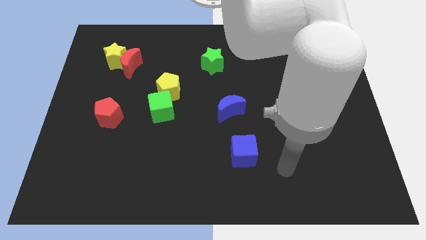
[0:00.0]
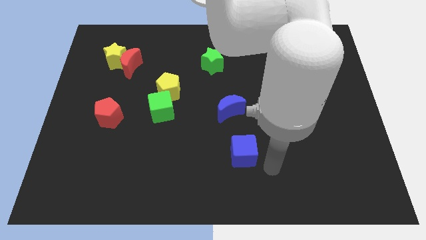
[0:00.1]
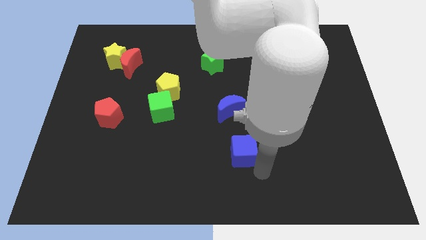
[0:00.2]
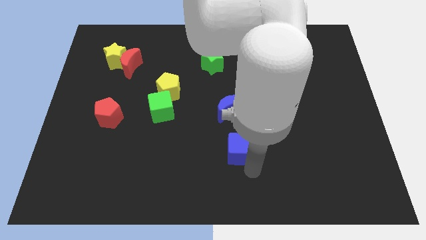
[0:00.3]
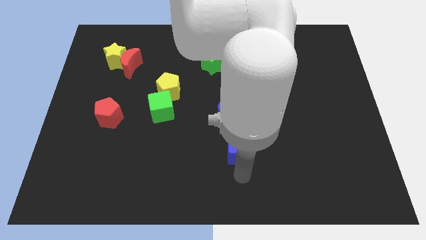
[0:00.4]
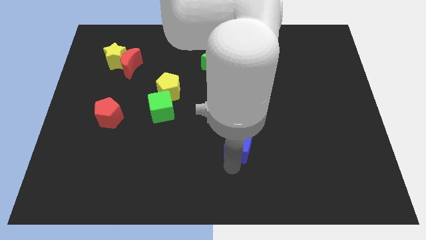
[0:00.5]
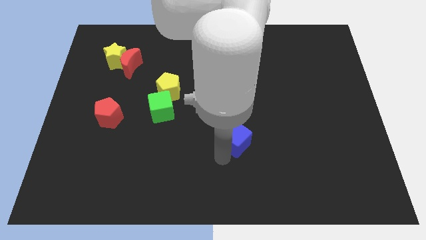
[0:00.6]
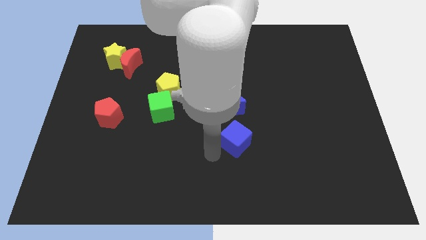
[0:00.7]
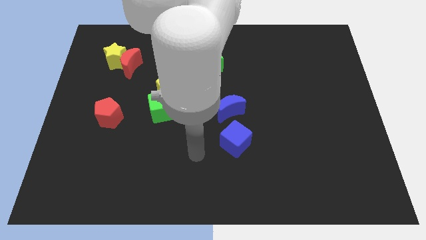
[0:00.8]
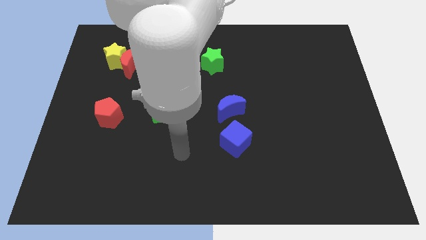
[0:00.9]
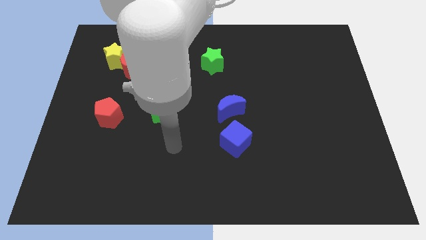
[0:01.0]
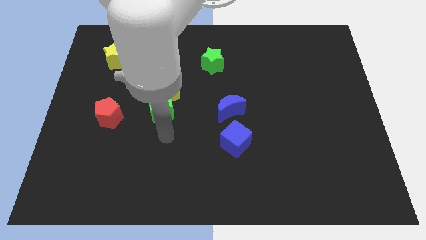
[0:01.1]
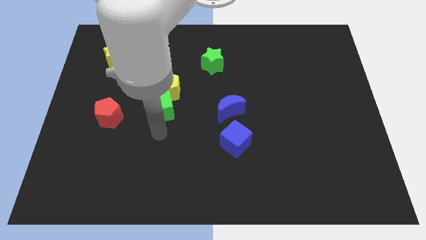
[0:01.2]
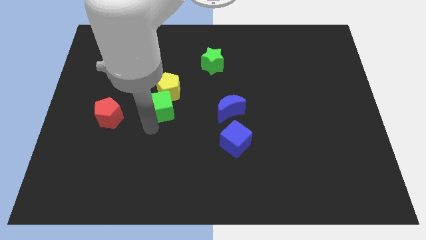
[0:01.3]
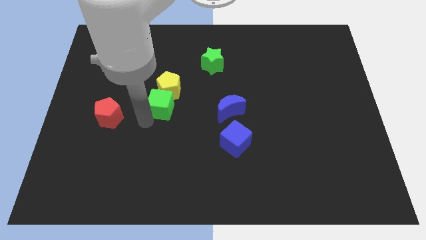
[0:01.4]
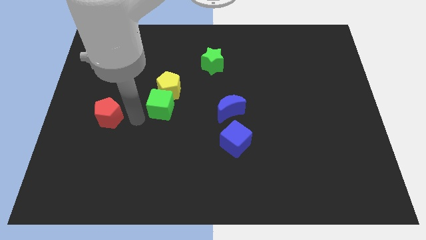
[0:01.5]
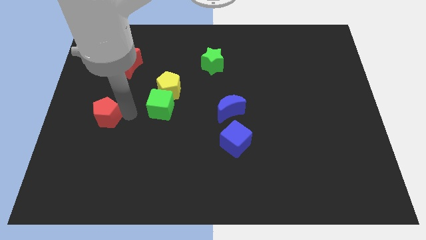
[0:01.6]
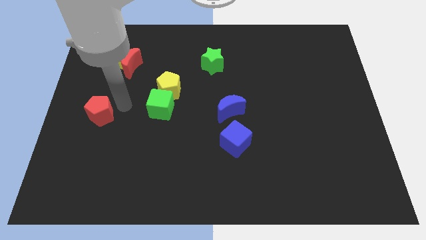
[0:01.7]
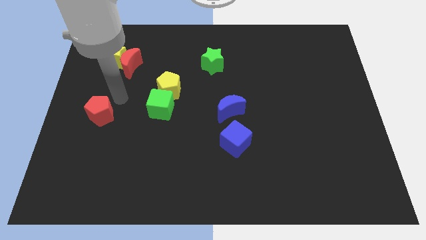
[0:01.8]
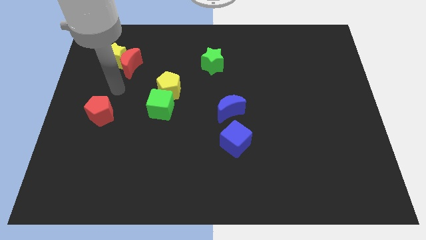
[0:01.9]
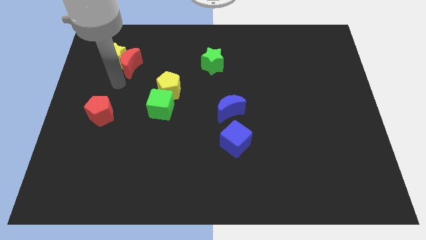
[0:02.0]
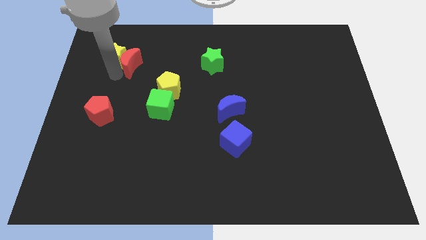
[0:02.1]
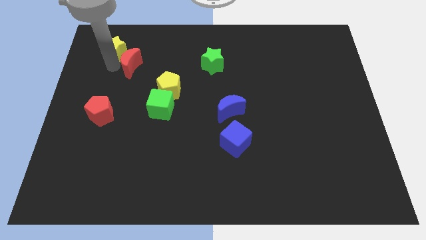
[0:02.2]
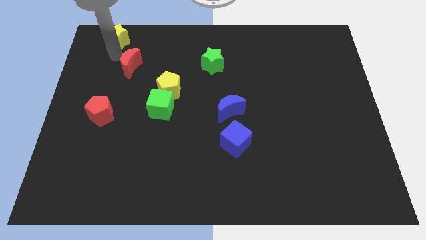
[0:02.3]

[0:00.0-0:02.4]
separate the red moon from the yellow star

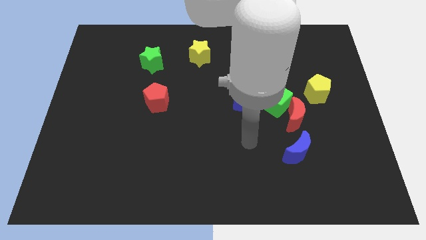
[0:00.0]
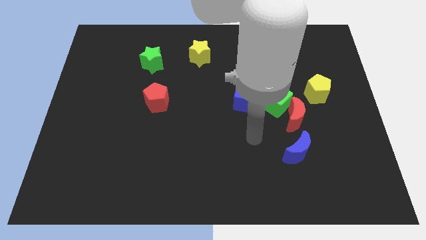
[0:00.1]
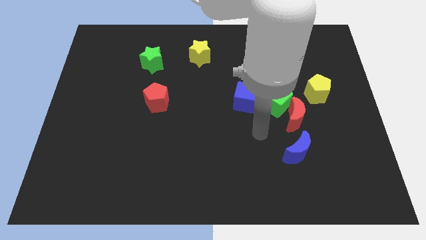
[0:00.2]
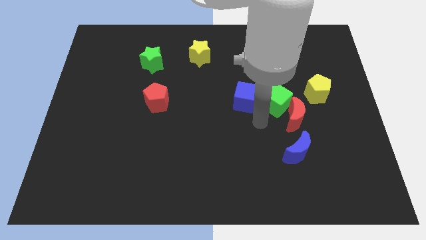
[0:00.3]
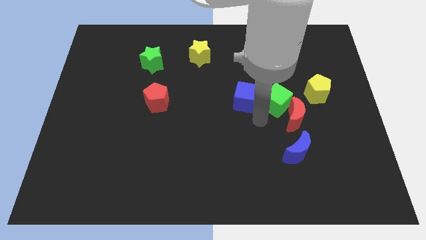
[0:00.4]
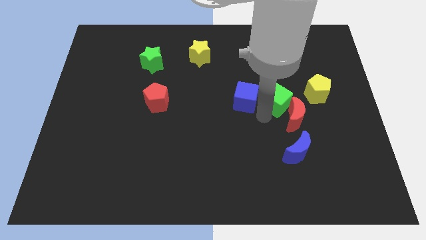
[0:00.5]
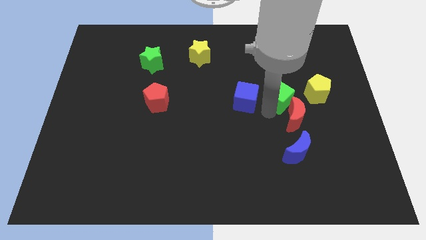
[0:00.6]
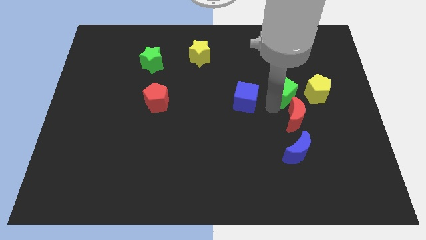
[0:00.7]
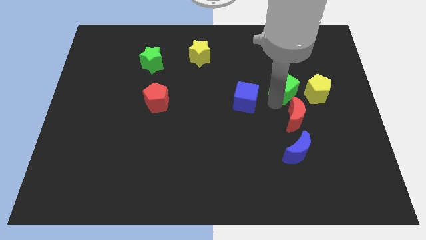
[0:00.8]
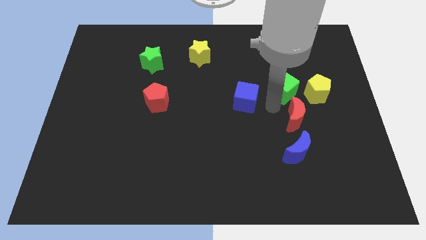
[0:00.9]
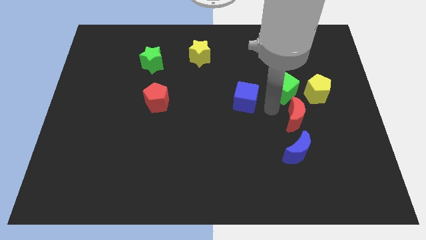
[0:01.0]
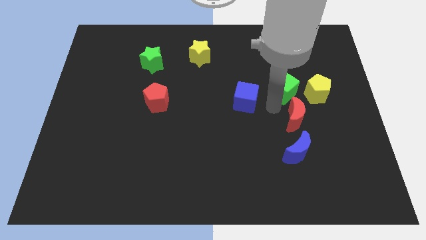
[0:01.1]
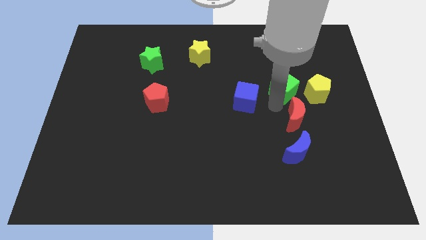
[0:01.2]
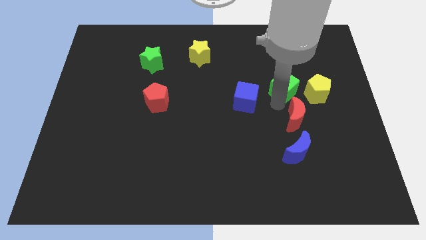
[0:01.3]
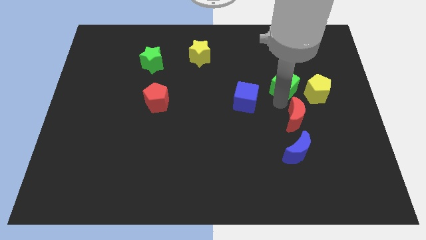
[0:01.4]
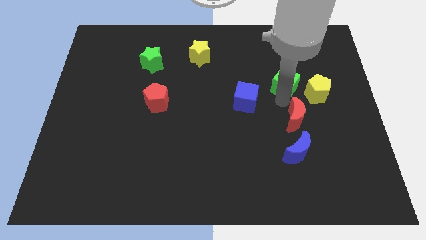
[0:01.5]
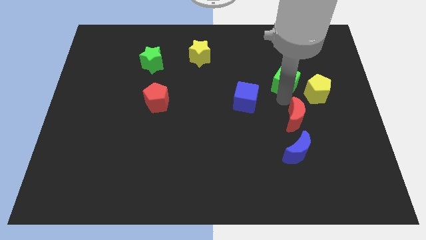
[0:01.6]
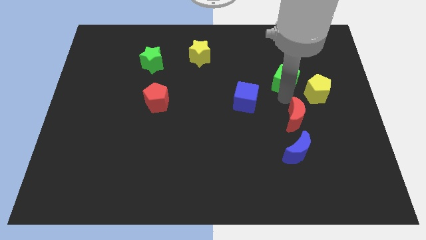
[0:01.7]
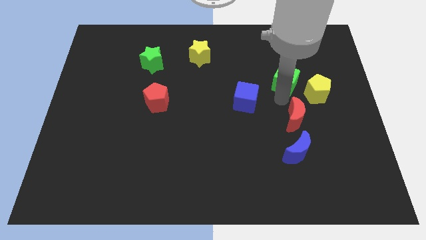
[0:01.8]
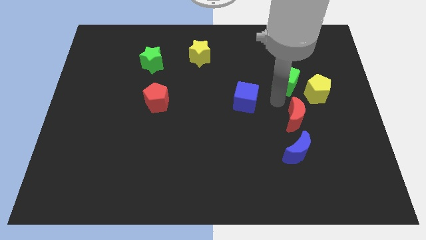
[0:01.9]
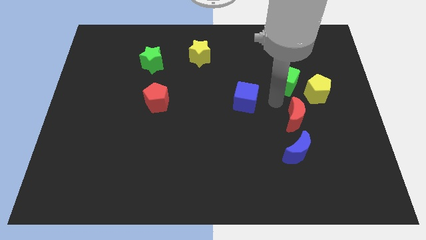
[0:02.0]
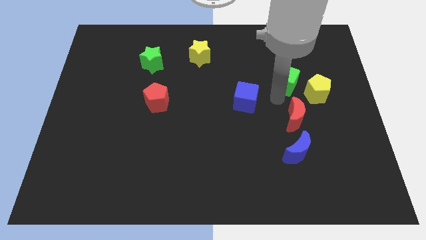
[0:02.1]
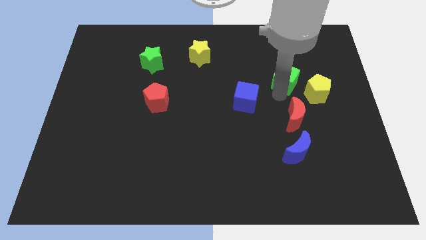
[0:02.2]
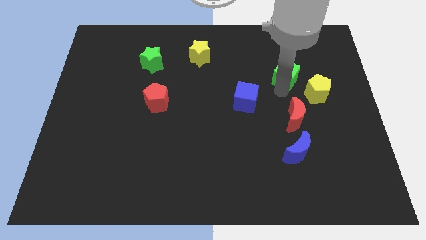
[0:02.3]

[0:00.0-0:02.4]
move the green cube away from the red moon and blue cube

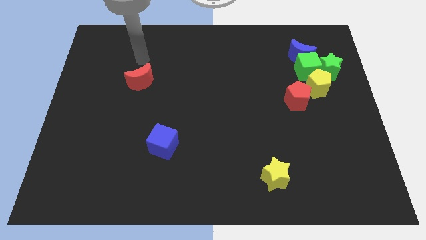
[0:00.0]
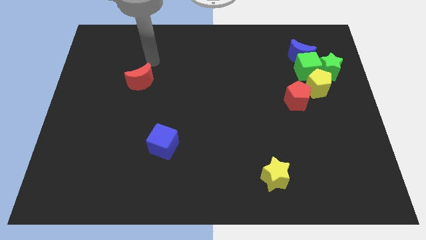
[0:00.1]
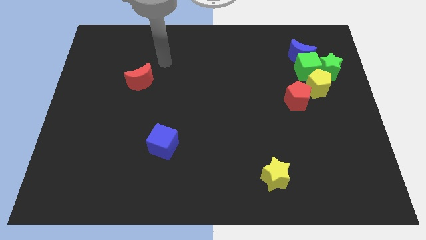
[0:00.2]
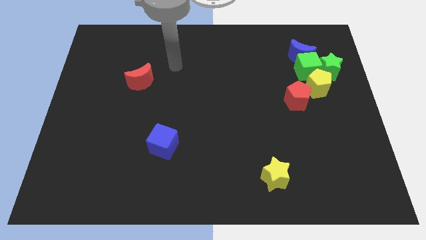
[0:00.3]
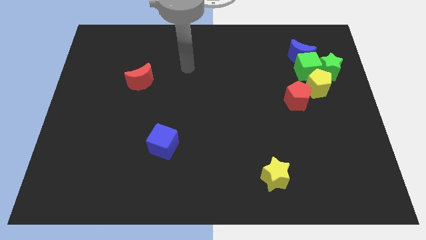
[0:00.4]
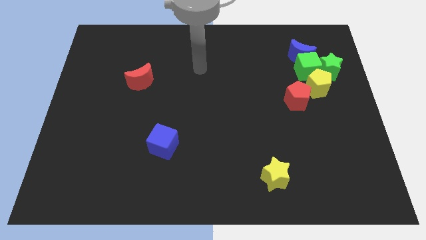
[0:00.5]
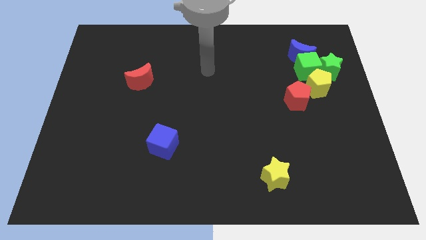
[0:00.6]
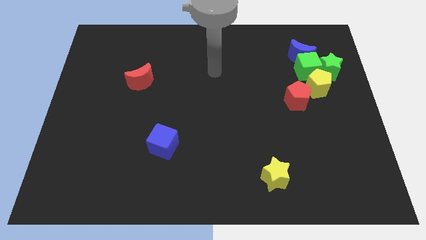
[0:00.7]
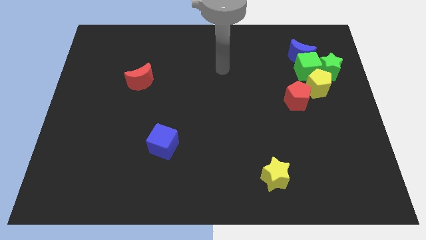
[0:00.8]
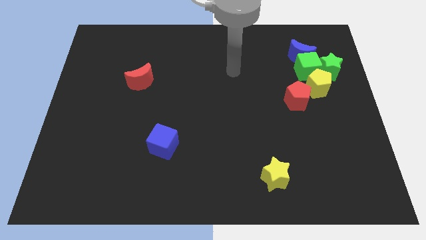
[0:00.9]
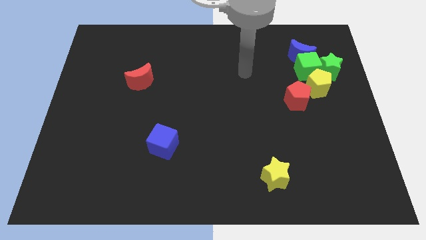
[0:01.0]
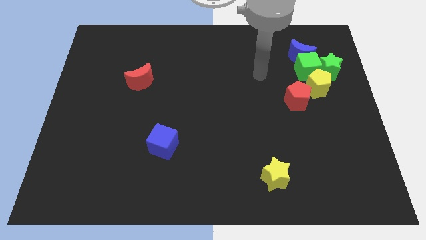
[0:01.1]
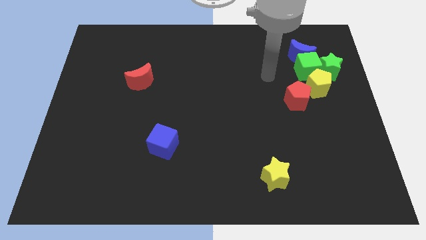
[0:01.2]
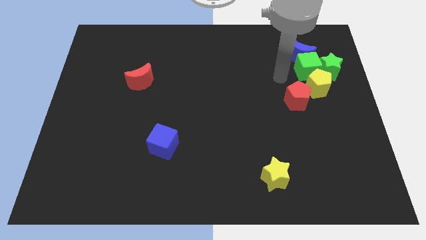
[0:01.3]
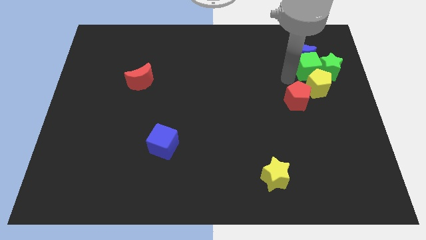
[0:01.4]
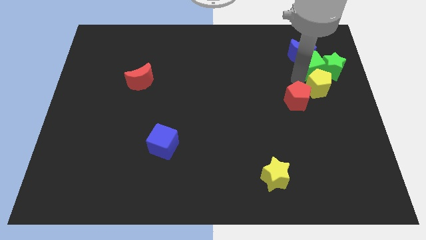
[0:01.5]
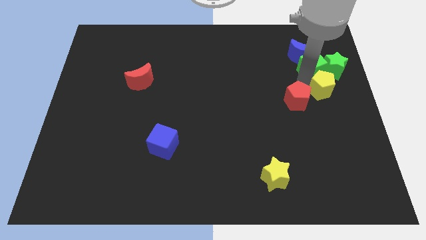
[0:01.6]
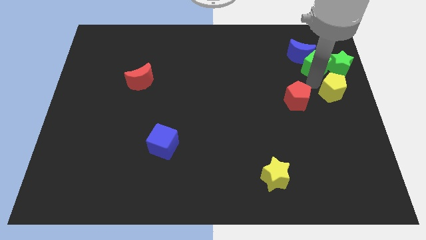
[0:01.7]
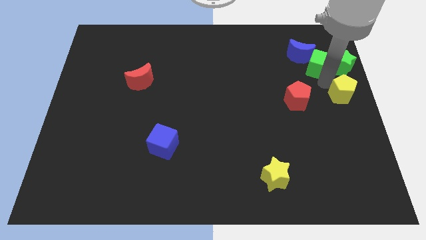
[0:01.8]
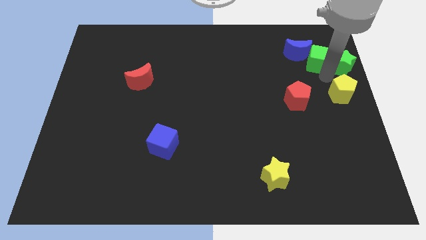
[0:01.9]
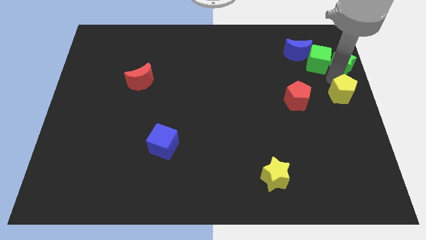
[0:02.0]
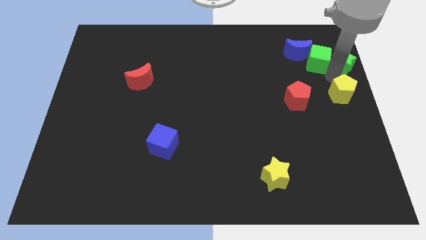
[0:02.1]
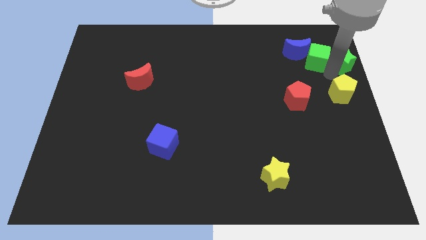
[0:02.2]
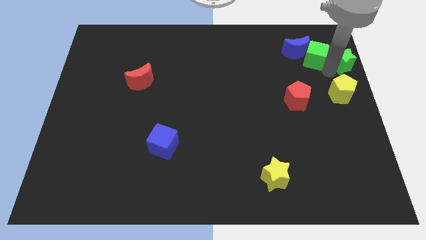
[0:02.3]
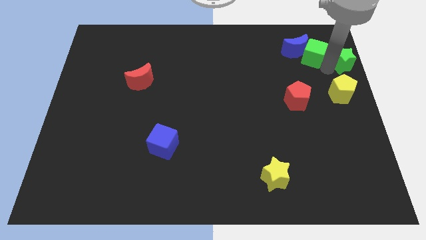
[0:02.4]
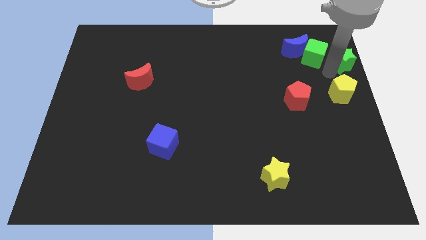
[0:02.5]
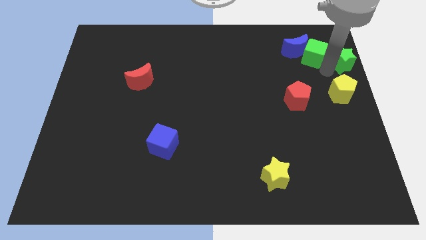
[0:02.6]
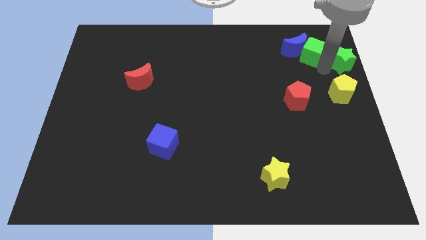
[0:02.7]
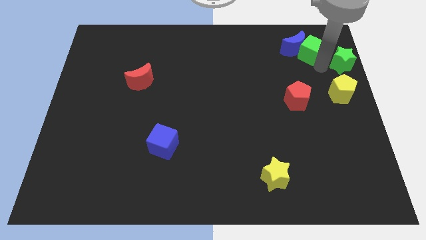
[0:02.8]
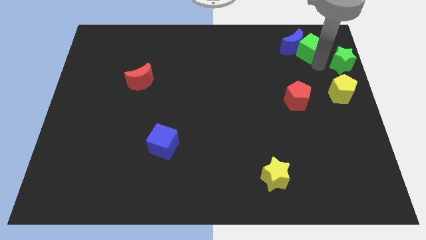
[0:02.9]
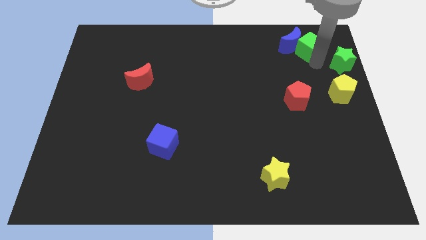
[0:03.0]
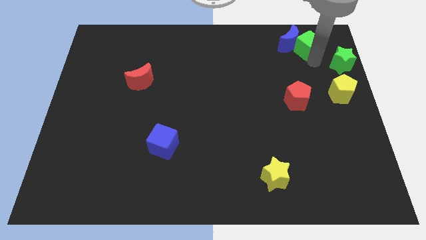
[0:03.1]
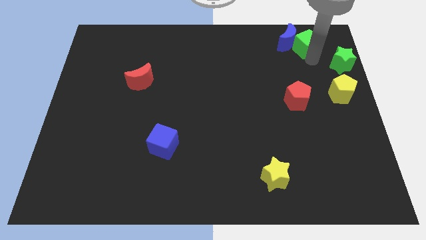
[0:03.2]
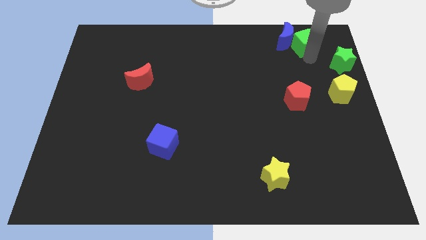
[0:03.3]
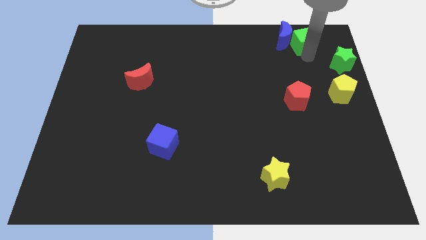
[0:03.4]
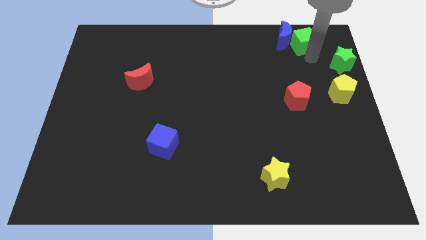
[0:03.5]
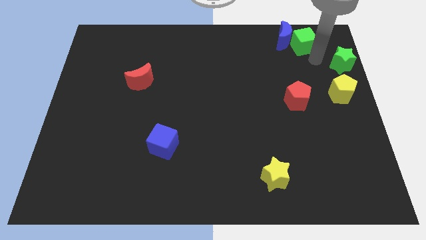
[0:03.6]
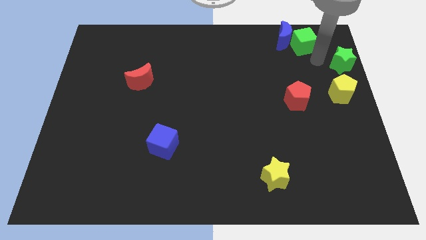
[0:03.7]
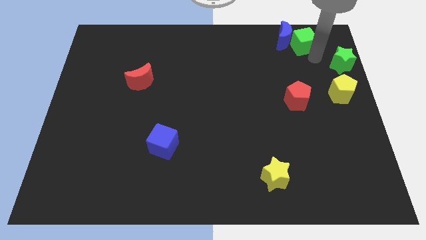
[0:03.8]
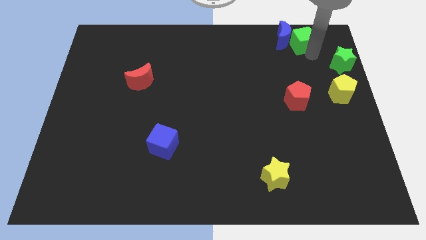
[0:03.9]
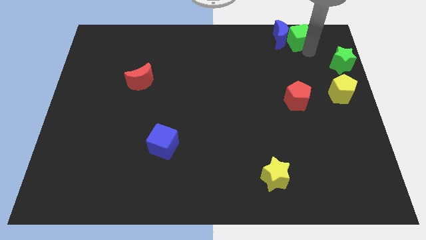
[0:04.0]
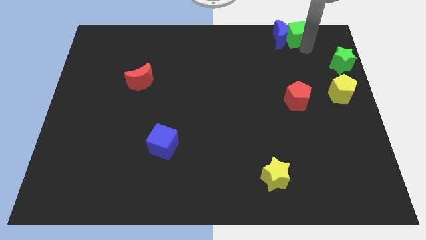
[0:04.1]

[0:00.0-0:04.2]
move the green cube away from the group

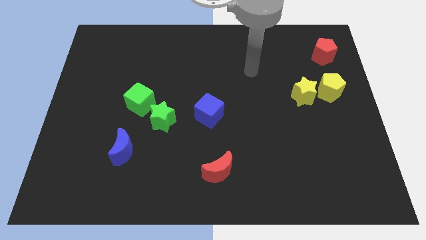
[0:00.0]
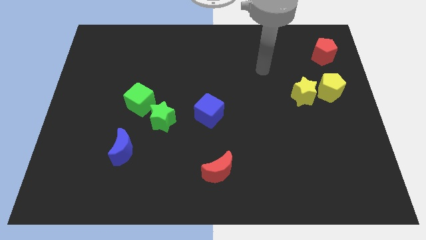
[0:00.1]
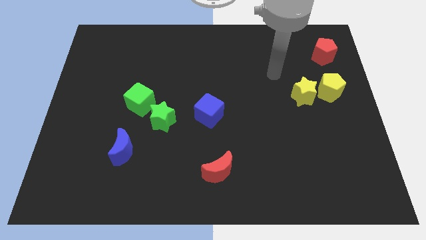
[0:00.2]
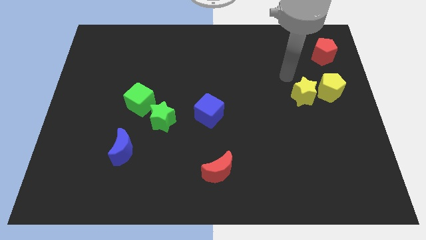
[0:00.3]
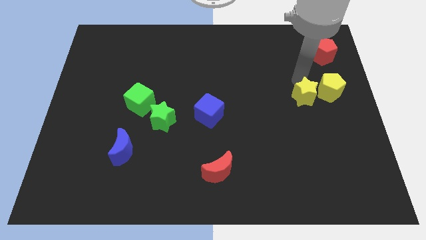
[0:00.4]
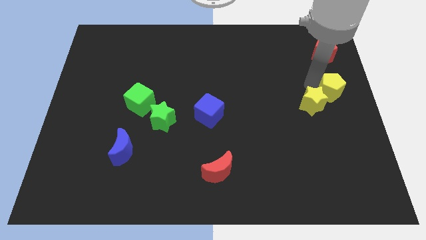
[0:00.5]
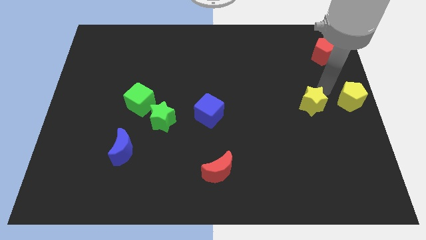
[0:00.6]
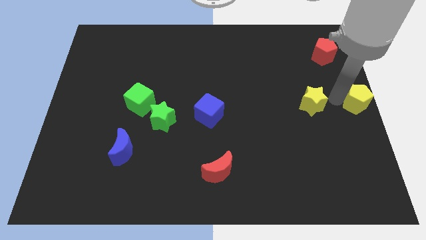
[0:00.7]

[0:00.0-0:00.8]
separate the yellow star from the yellow pentagon
